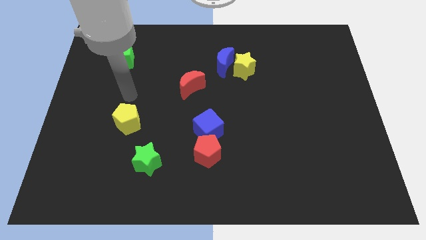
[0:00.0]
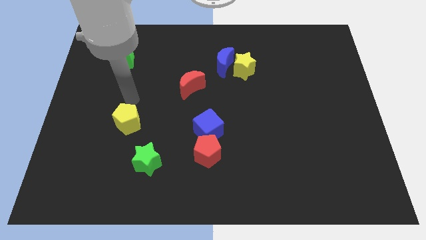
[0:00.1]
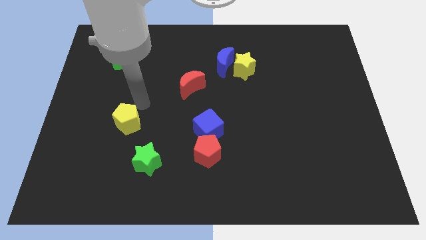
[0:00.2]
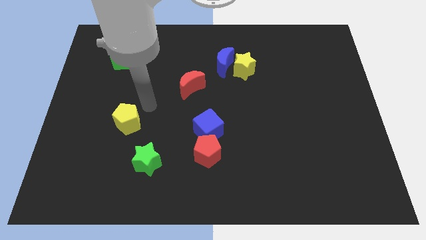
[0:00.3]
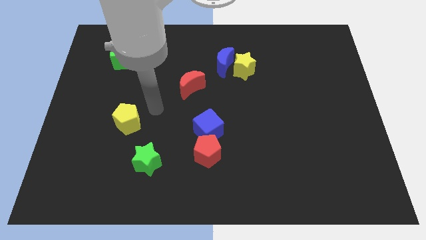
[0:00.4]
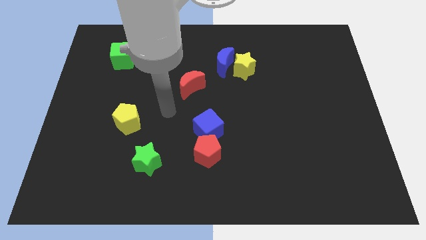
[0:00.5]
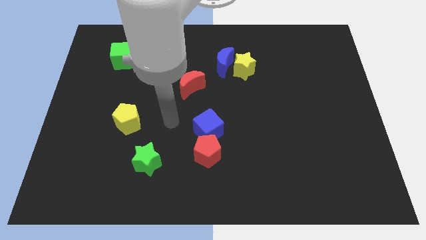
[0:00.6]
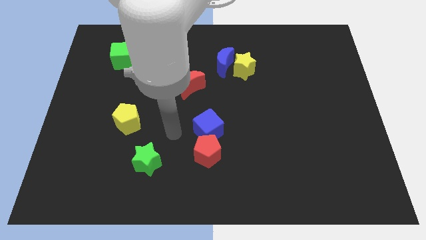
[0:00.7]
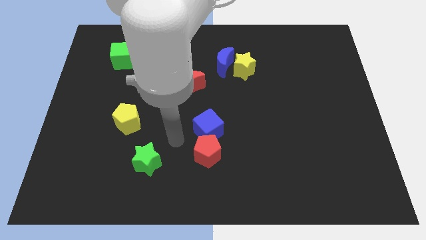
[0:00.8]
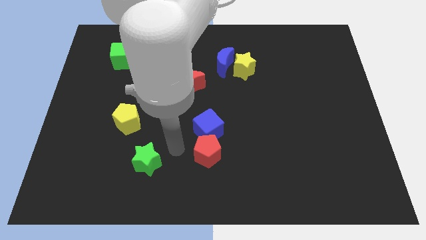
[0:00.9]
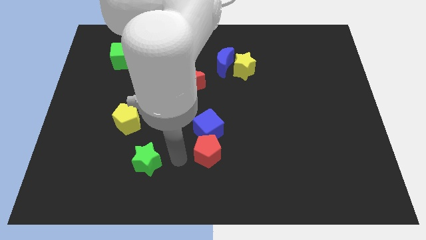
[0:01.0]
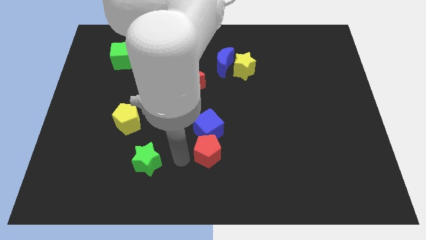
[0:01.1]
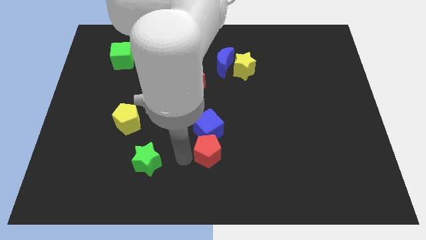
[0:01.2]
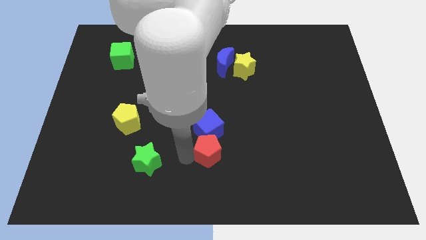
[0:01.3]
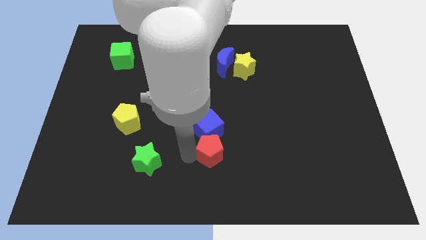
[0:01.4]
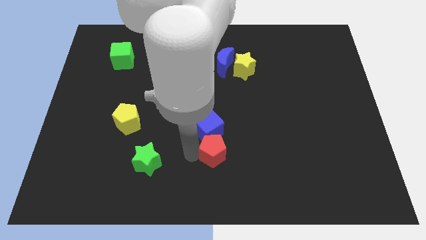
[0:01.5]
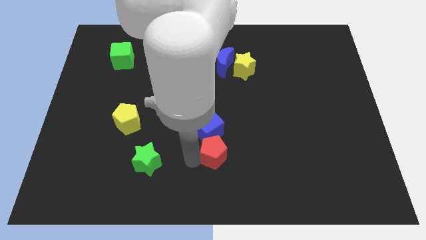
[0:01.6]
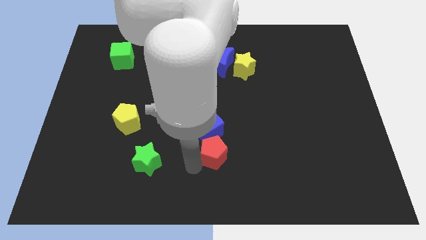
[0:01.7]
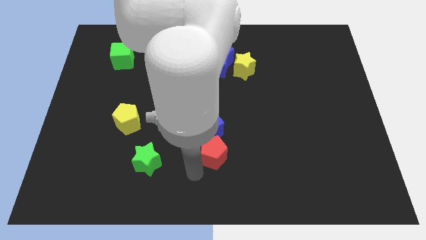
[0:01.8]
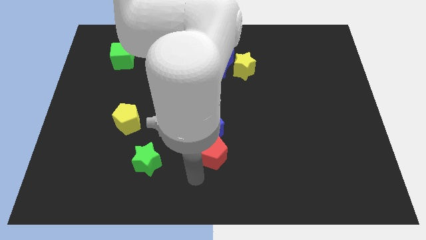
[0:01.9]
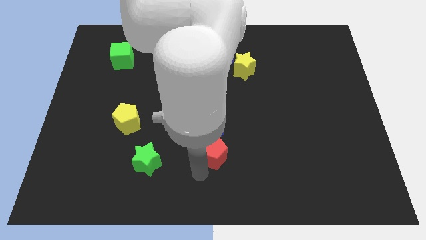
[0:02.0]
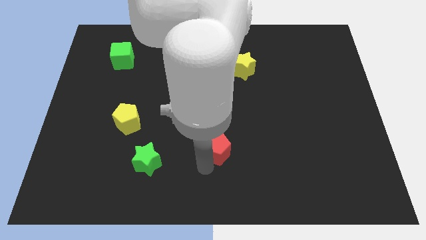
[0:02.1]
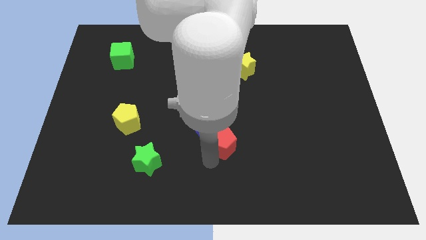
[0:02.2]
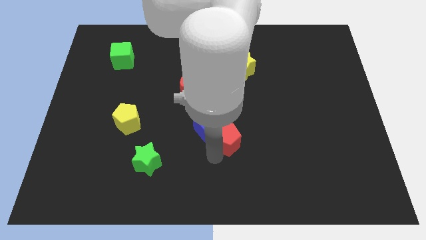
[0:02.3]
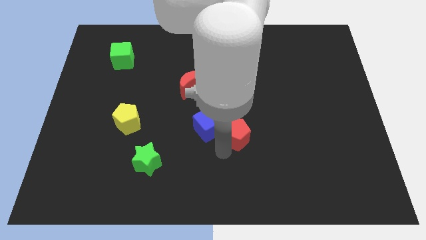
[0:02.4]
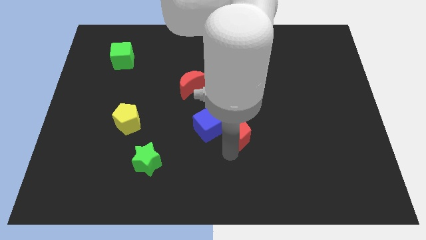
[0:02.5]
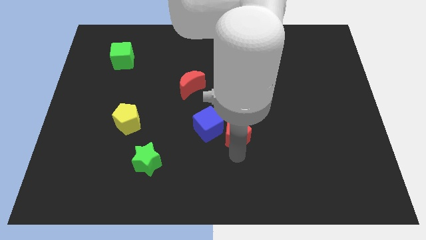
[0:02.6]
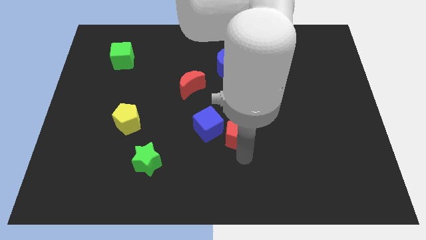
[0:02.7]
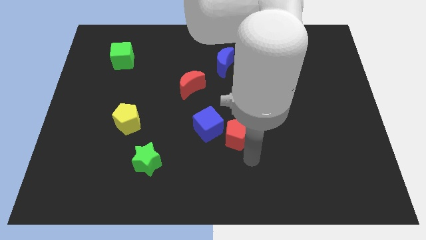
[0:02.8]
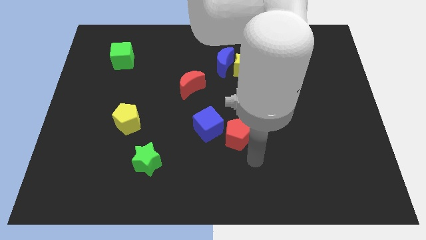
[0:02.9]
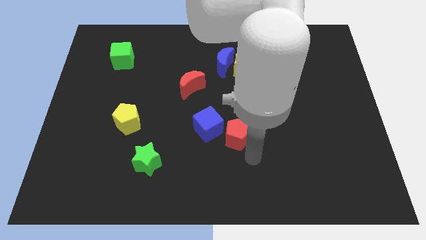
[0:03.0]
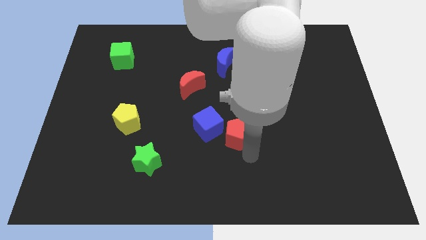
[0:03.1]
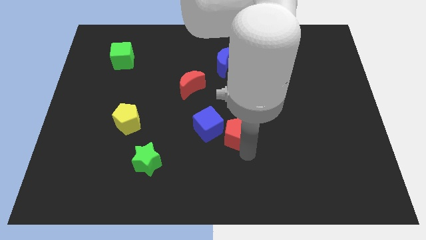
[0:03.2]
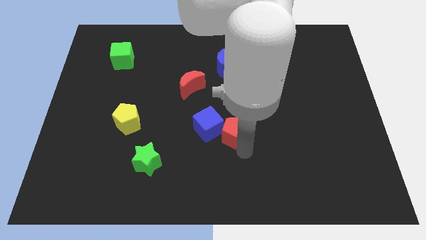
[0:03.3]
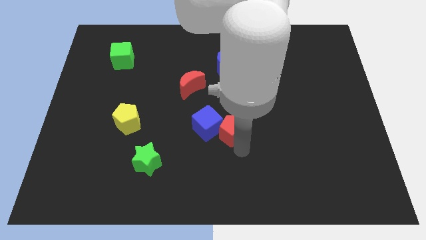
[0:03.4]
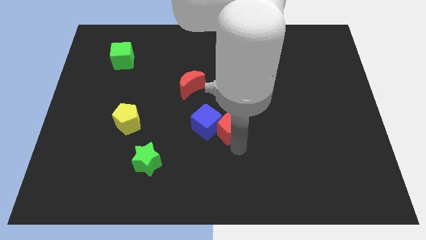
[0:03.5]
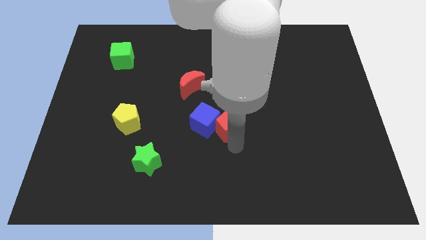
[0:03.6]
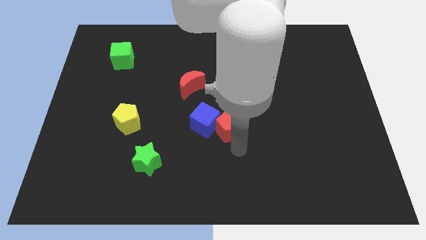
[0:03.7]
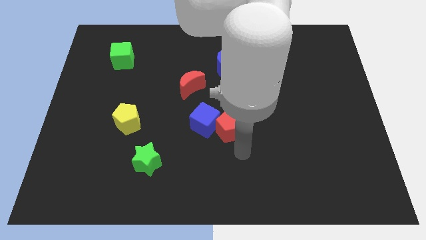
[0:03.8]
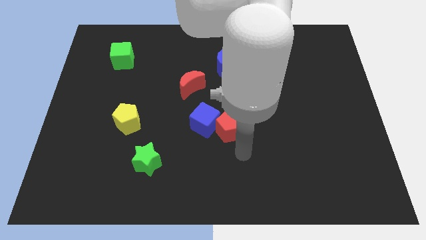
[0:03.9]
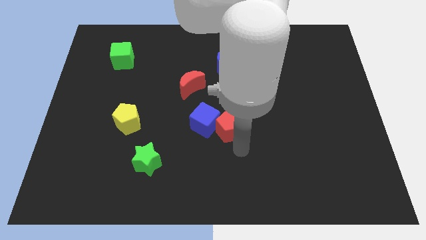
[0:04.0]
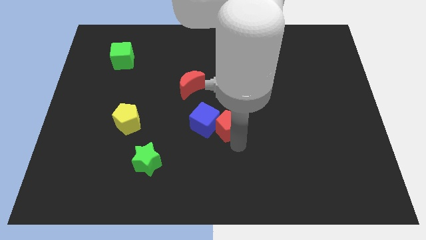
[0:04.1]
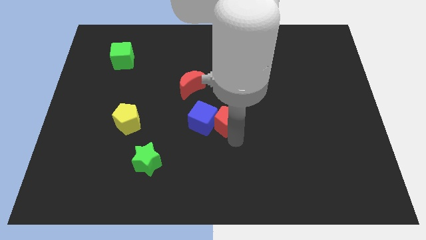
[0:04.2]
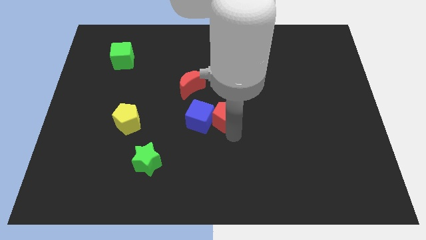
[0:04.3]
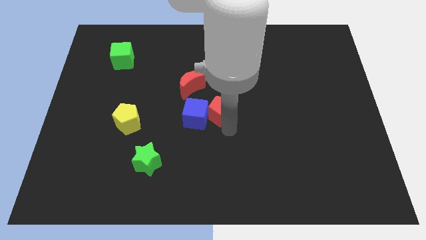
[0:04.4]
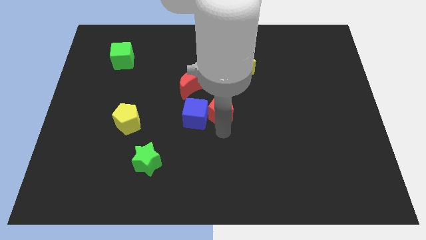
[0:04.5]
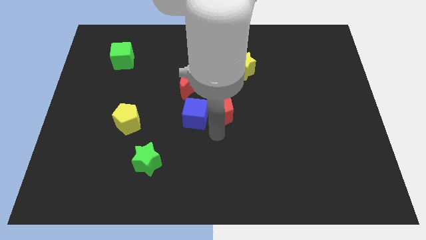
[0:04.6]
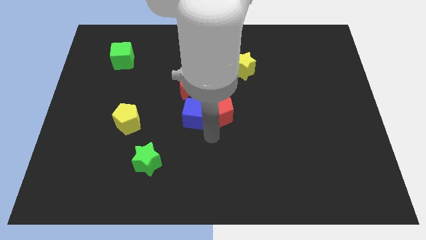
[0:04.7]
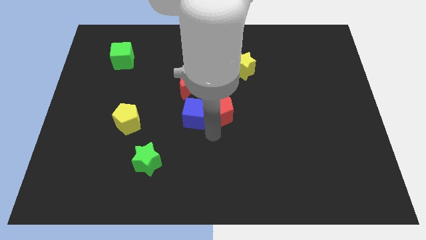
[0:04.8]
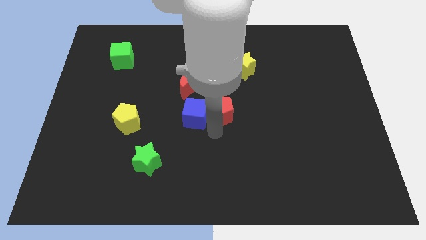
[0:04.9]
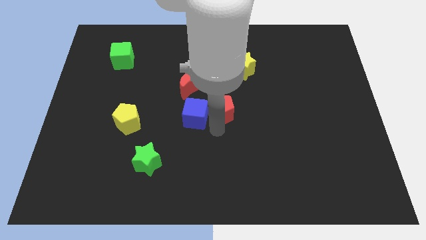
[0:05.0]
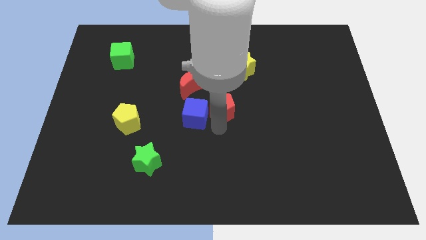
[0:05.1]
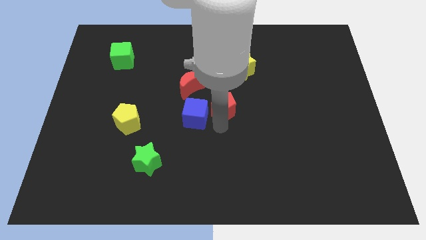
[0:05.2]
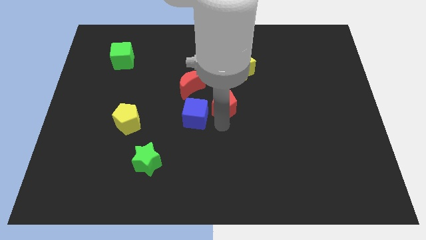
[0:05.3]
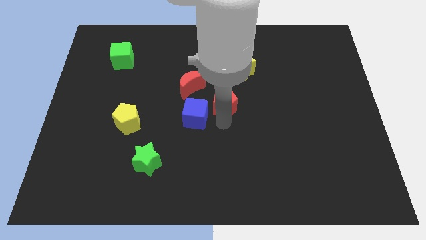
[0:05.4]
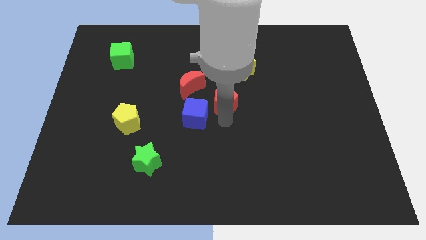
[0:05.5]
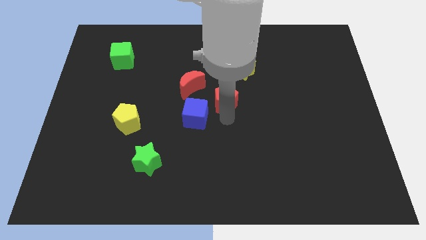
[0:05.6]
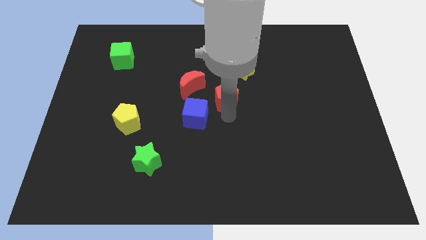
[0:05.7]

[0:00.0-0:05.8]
move the red pentagon right of the red moon

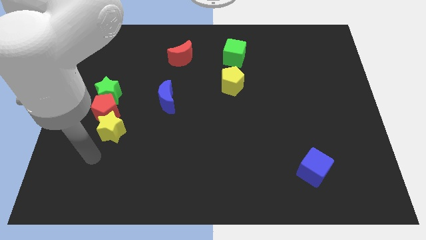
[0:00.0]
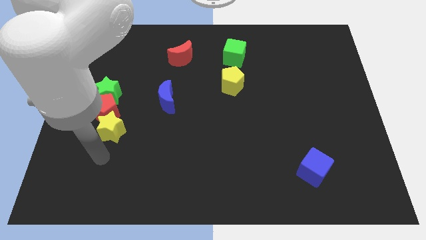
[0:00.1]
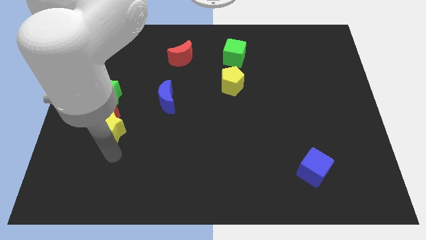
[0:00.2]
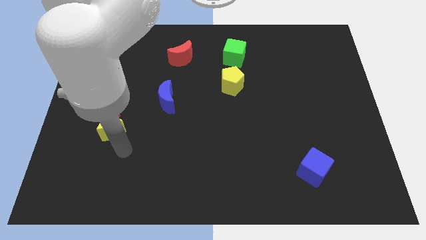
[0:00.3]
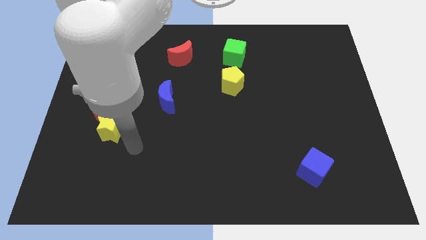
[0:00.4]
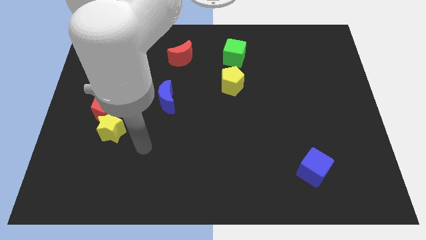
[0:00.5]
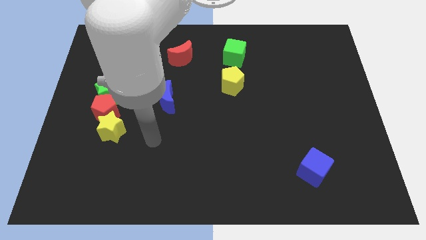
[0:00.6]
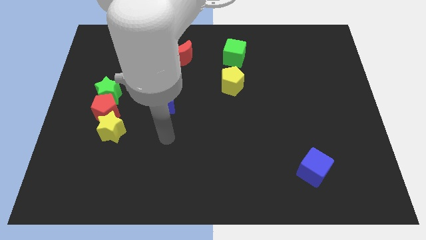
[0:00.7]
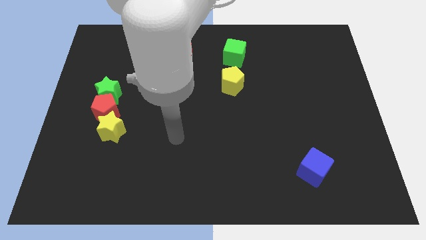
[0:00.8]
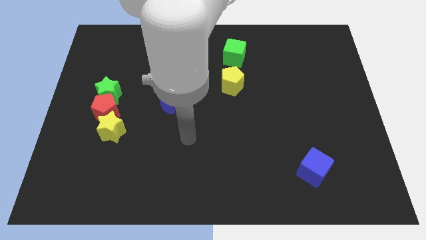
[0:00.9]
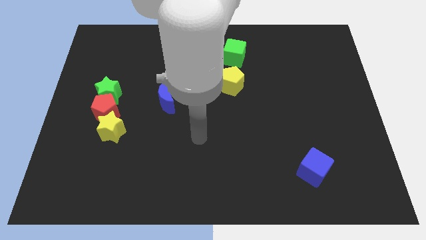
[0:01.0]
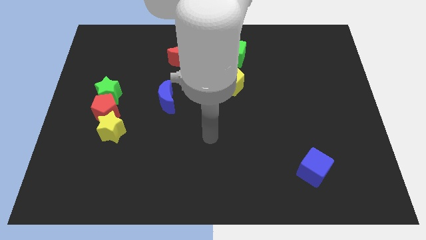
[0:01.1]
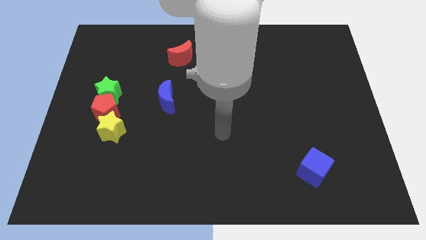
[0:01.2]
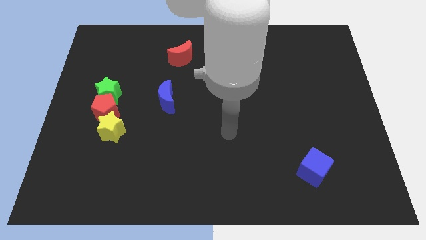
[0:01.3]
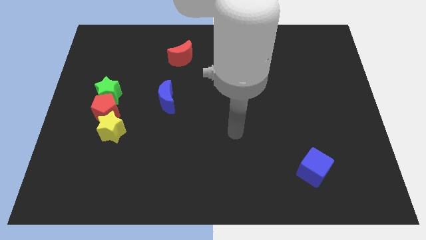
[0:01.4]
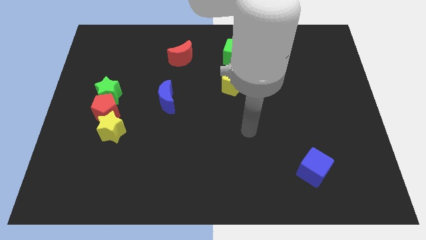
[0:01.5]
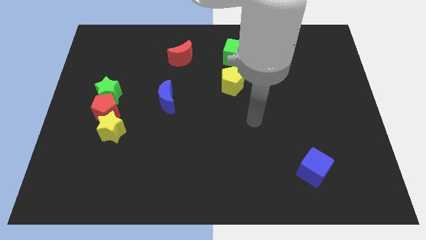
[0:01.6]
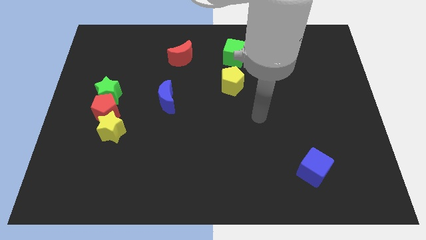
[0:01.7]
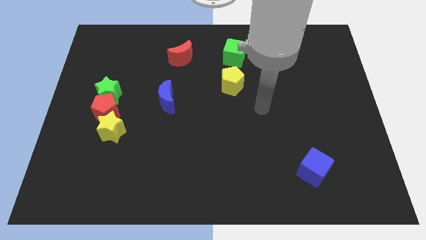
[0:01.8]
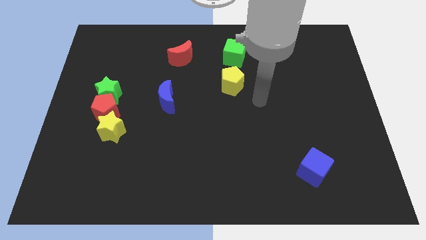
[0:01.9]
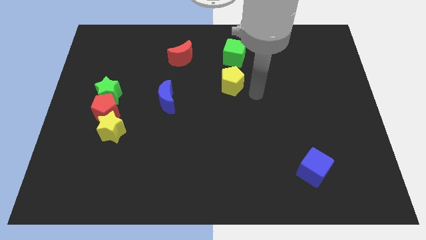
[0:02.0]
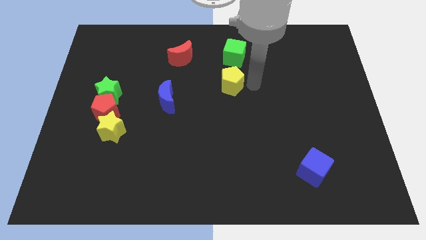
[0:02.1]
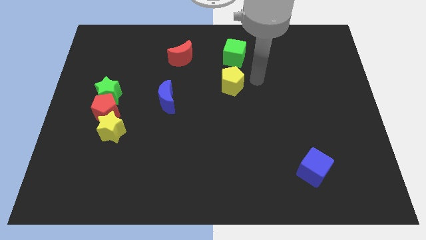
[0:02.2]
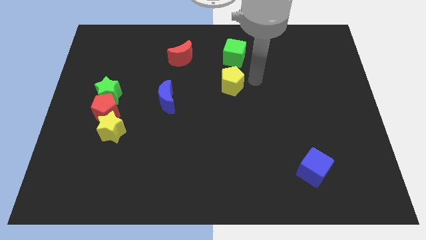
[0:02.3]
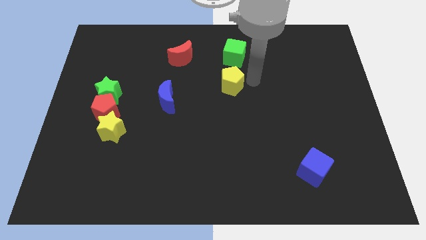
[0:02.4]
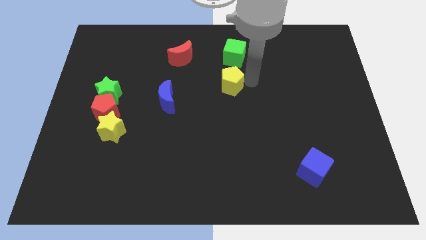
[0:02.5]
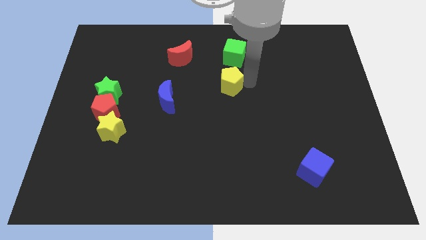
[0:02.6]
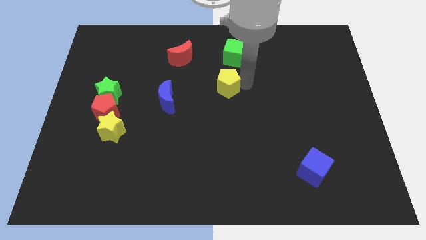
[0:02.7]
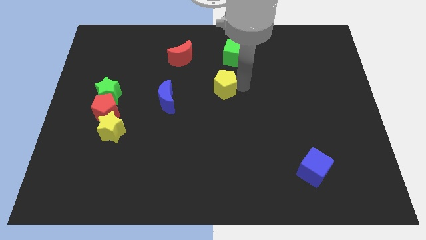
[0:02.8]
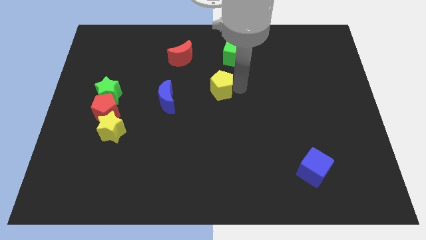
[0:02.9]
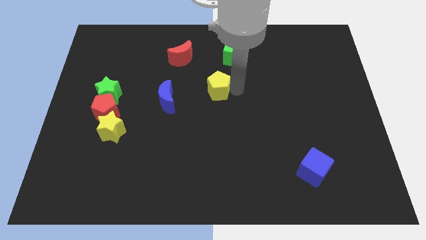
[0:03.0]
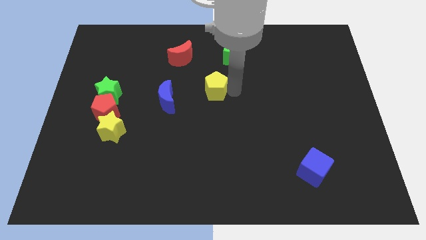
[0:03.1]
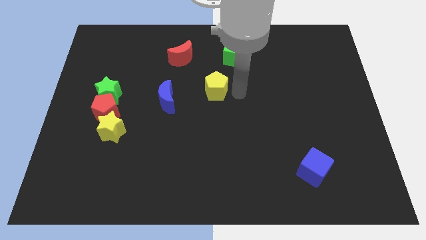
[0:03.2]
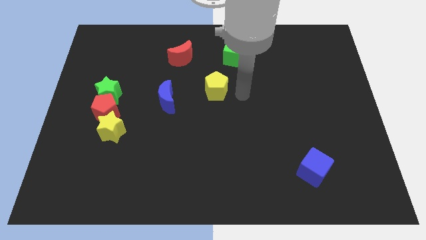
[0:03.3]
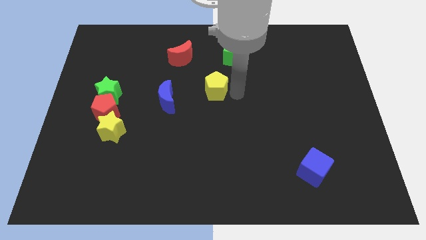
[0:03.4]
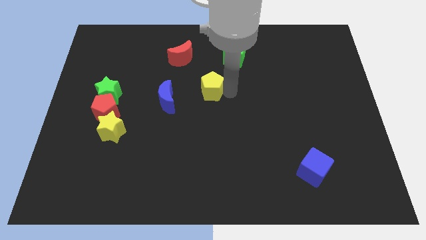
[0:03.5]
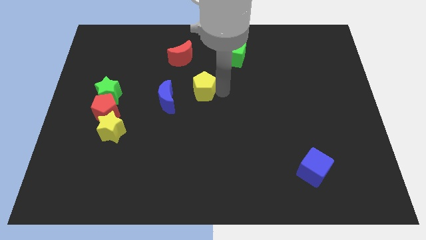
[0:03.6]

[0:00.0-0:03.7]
move the yellow pentagon to the top right side of the blue moon
